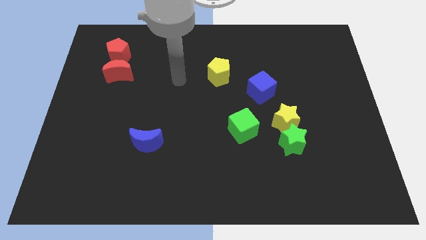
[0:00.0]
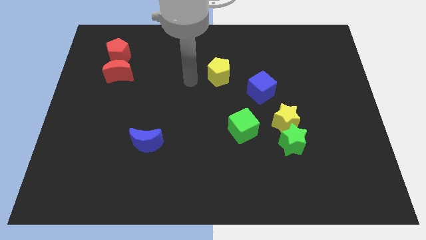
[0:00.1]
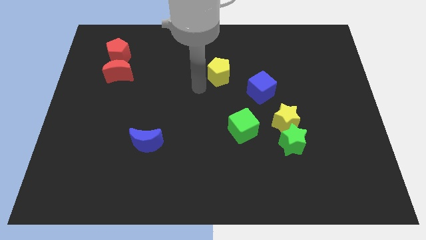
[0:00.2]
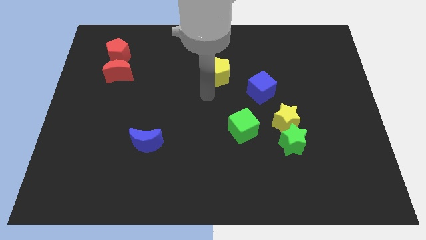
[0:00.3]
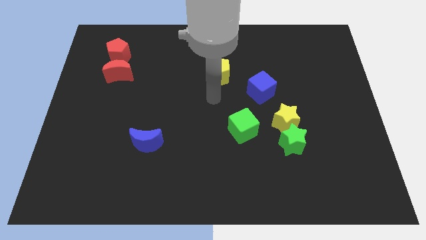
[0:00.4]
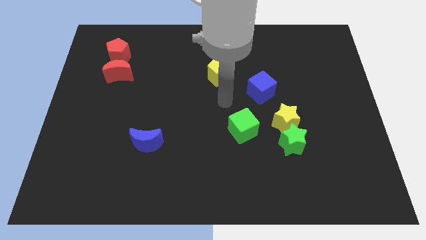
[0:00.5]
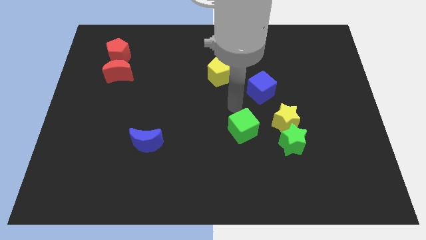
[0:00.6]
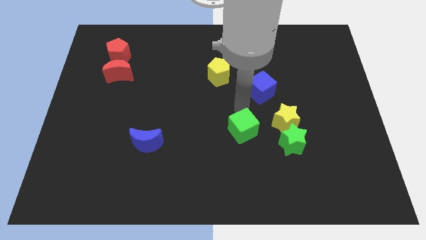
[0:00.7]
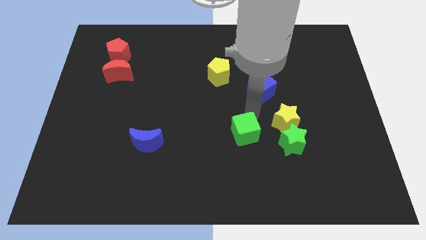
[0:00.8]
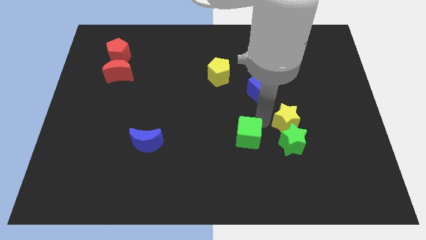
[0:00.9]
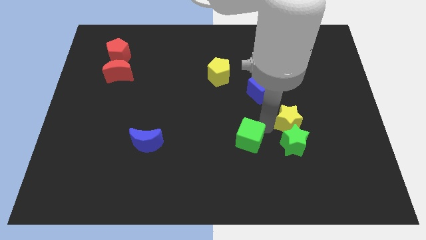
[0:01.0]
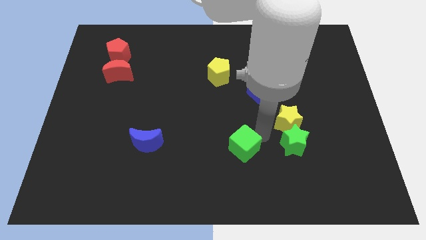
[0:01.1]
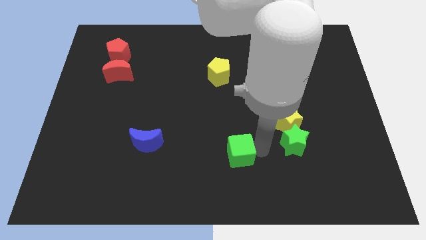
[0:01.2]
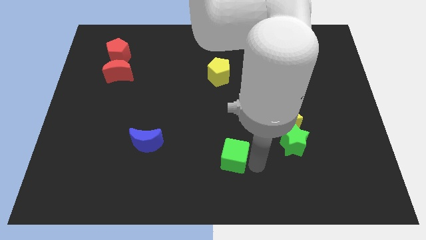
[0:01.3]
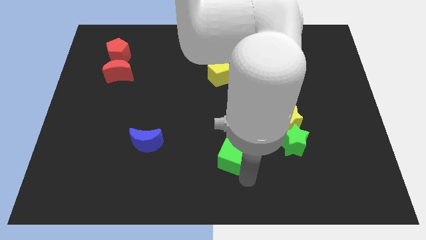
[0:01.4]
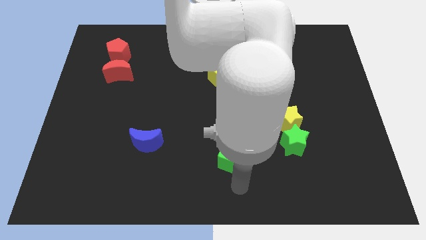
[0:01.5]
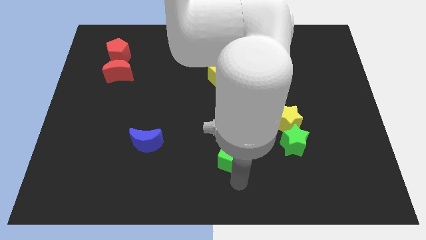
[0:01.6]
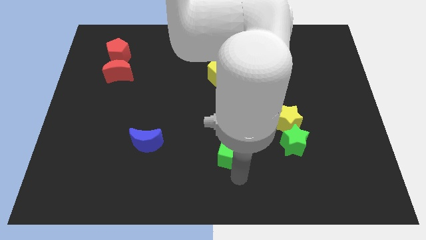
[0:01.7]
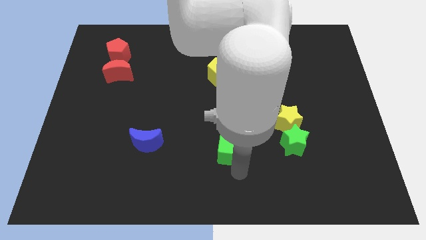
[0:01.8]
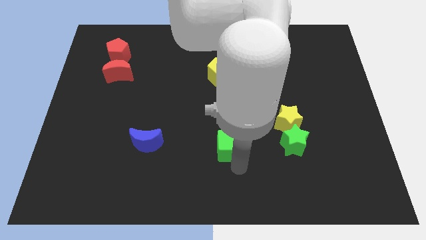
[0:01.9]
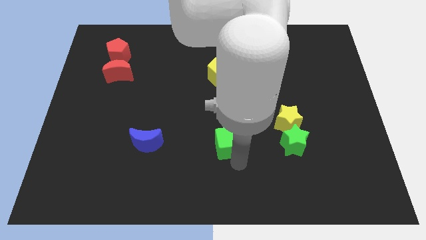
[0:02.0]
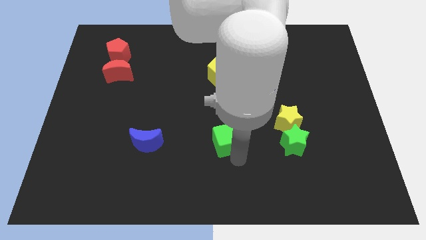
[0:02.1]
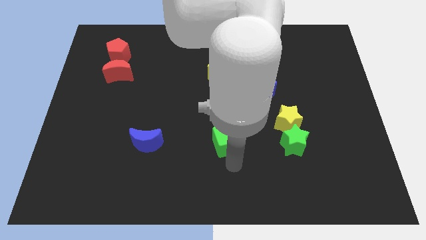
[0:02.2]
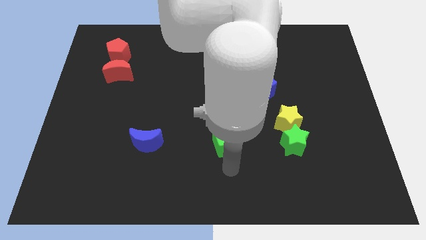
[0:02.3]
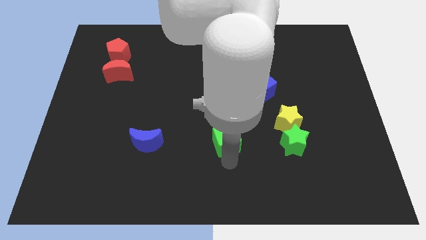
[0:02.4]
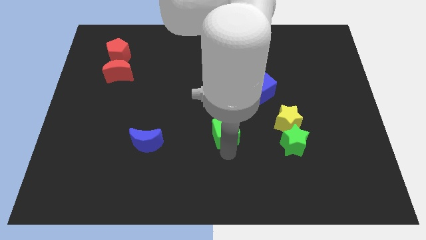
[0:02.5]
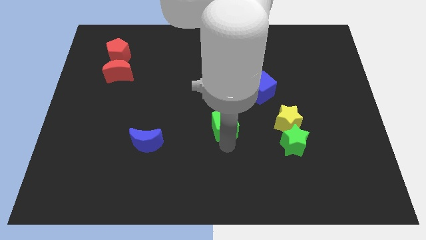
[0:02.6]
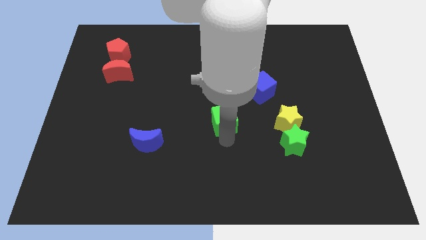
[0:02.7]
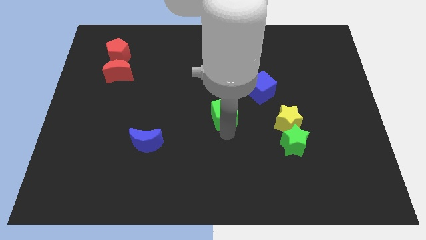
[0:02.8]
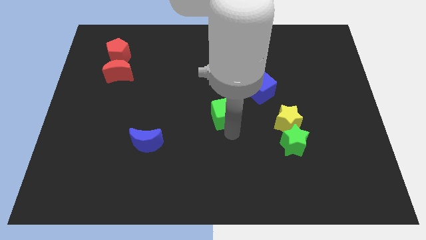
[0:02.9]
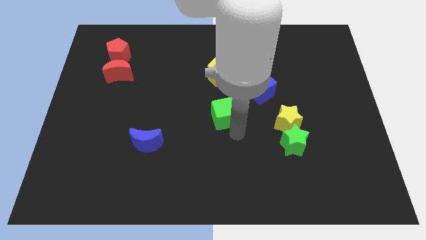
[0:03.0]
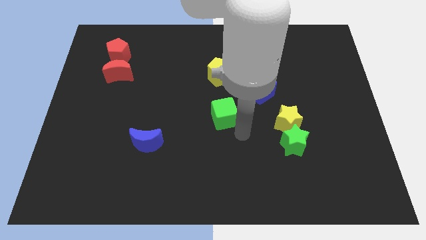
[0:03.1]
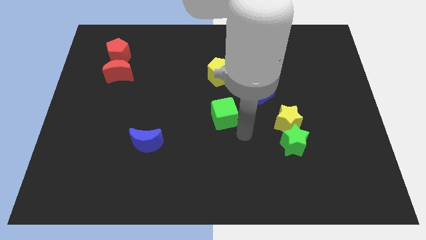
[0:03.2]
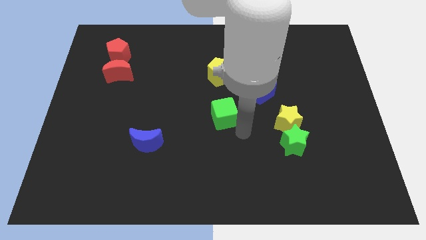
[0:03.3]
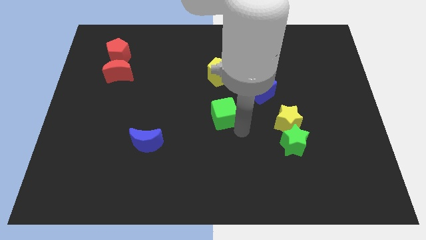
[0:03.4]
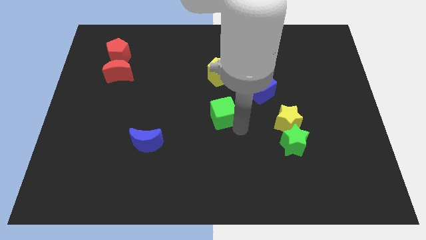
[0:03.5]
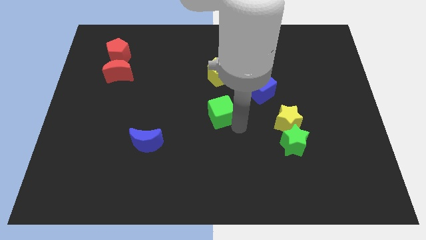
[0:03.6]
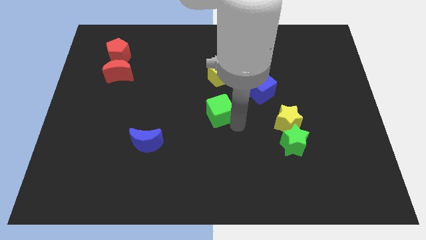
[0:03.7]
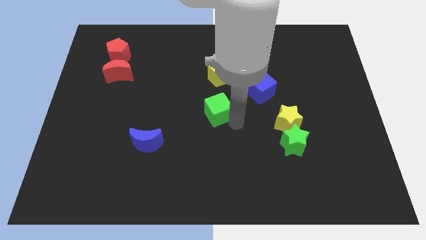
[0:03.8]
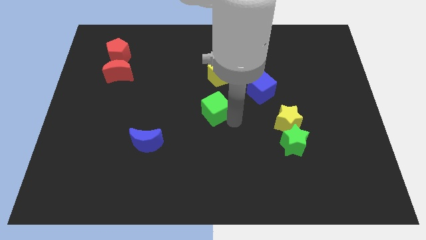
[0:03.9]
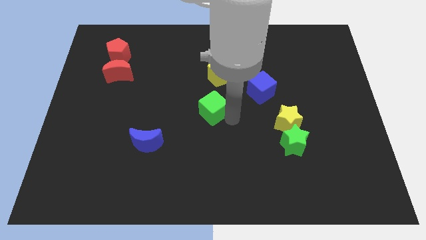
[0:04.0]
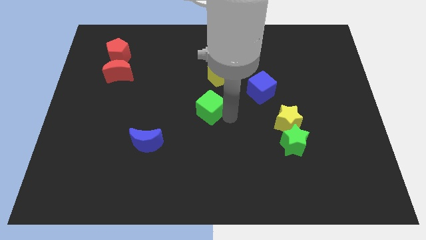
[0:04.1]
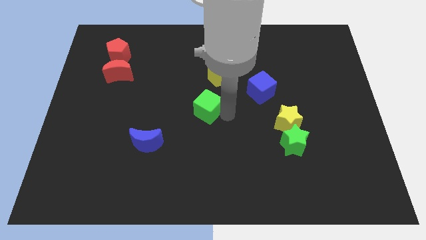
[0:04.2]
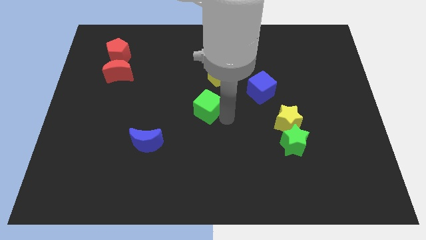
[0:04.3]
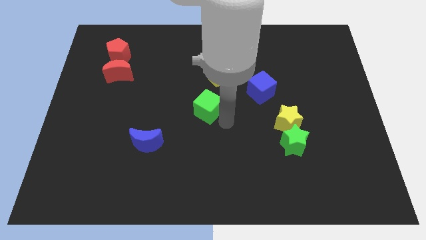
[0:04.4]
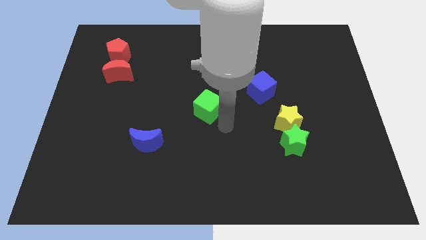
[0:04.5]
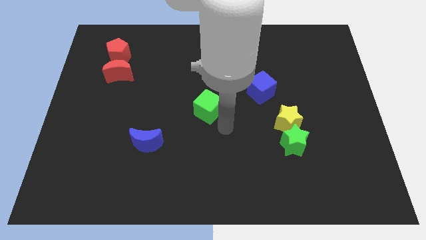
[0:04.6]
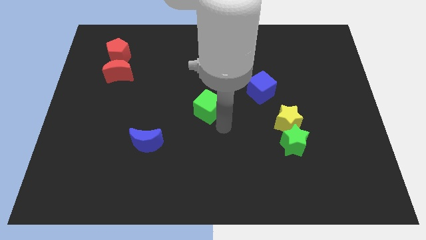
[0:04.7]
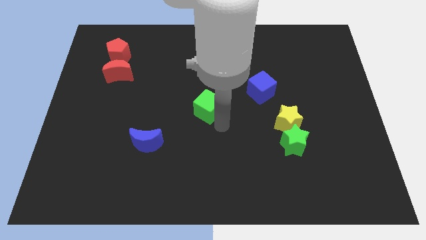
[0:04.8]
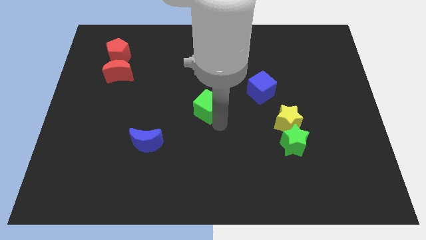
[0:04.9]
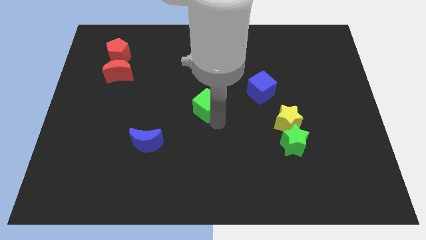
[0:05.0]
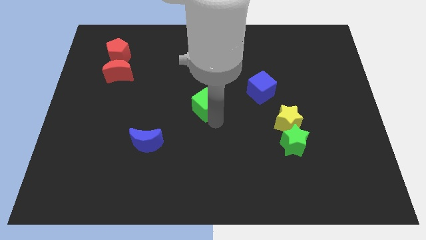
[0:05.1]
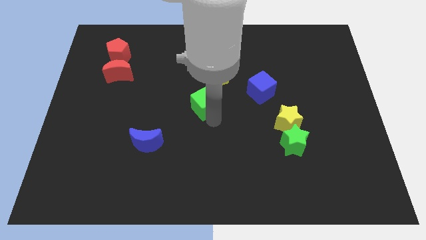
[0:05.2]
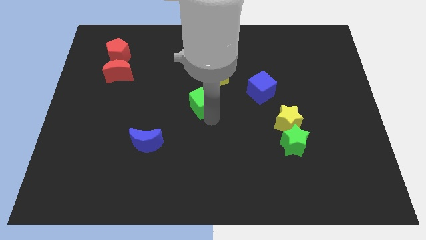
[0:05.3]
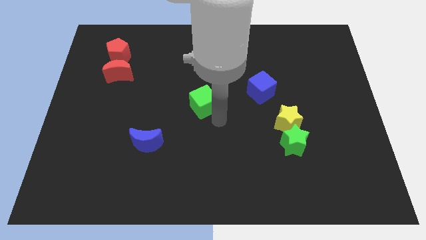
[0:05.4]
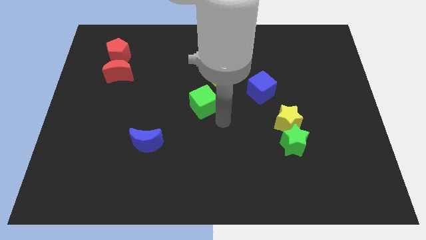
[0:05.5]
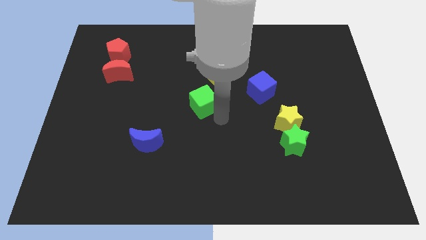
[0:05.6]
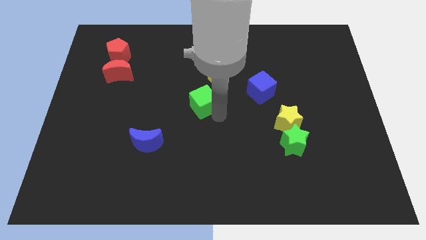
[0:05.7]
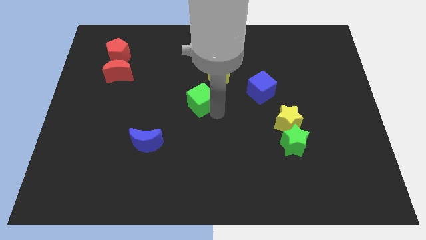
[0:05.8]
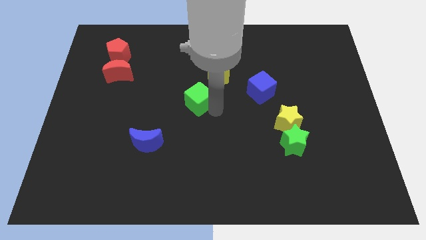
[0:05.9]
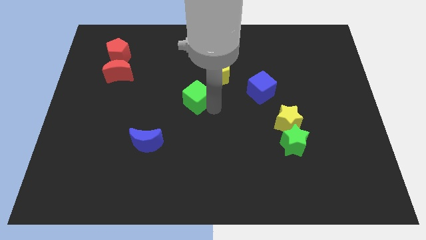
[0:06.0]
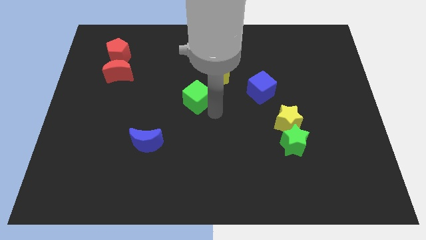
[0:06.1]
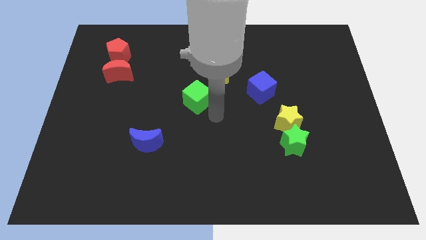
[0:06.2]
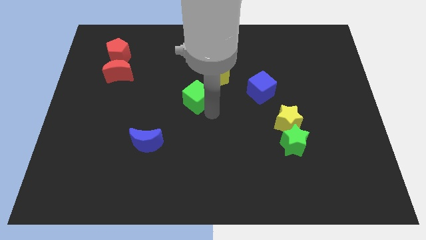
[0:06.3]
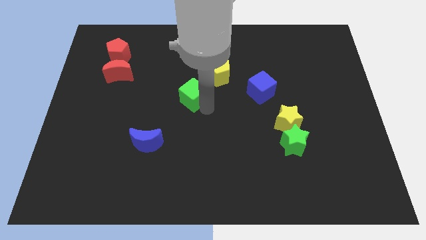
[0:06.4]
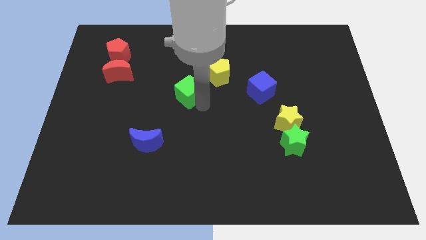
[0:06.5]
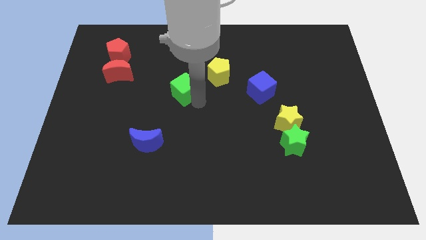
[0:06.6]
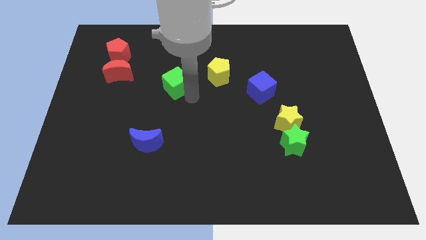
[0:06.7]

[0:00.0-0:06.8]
push the green cube diagonally up and to the left

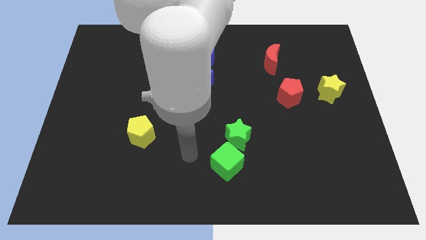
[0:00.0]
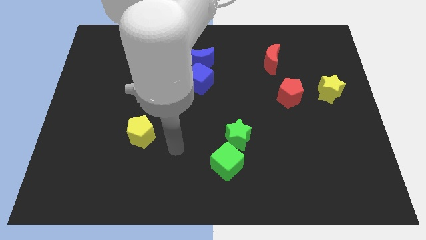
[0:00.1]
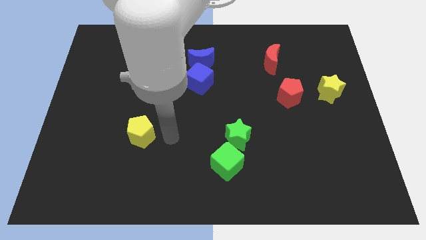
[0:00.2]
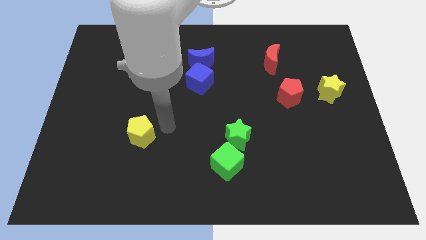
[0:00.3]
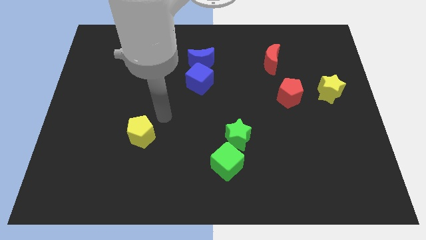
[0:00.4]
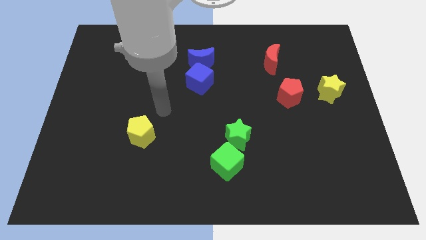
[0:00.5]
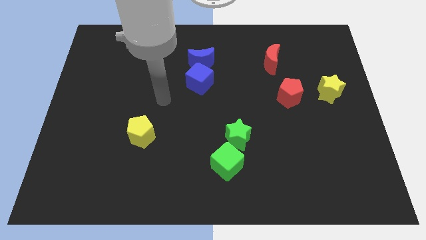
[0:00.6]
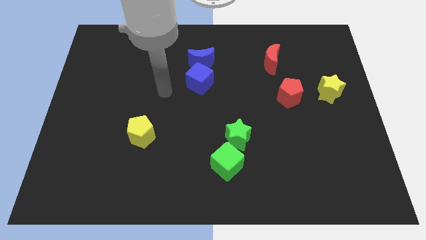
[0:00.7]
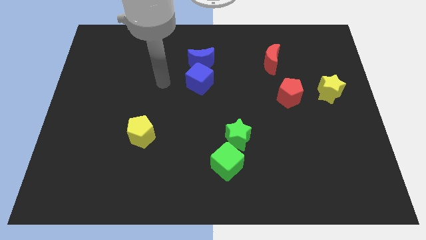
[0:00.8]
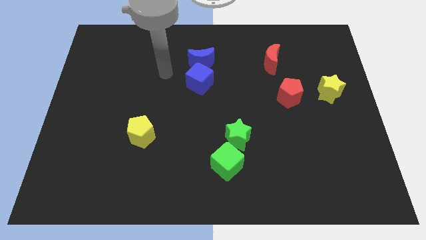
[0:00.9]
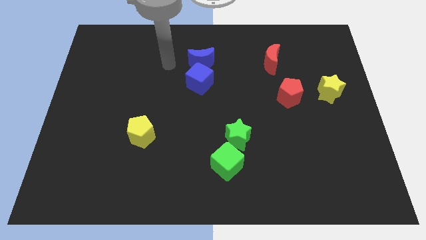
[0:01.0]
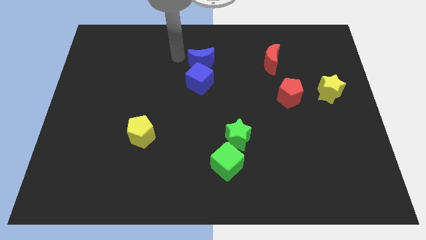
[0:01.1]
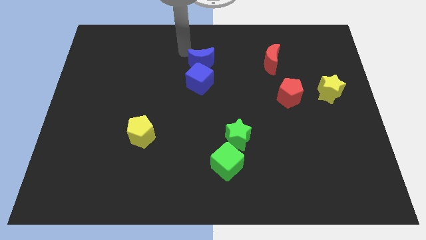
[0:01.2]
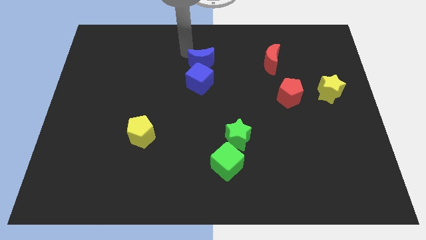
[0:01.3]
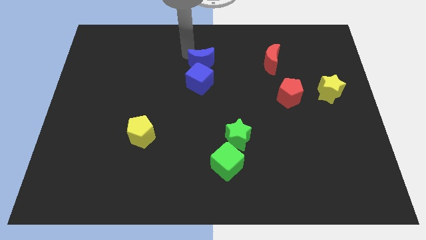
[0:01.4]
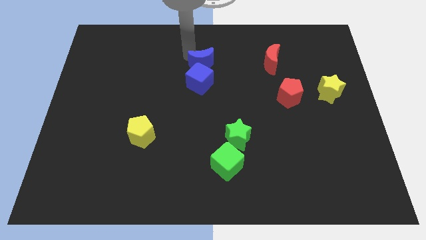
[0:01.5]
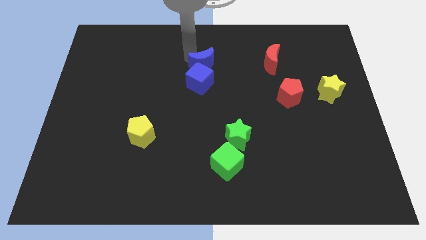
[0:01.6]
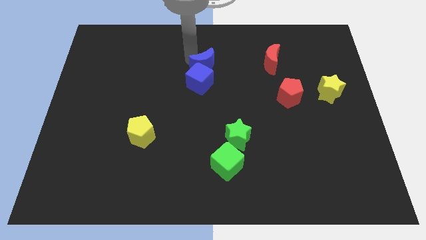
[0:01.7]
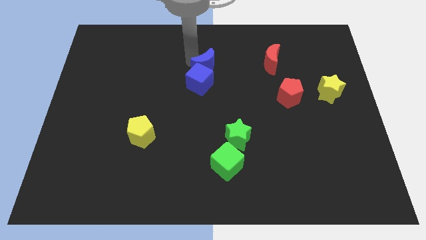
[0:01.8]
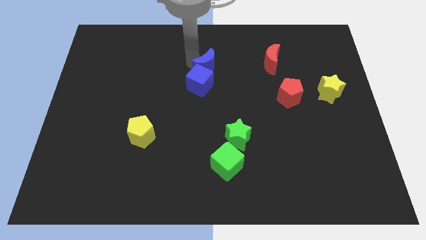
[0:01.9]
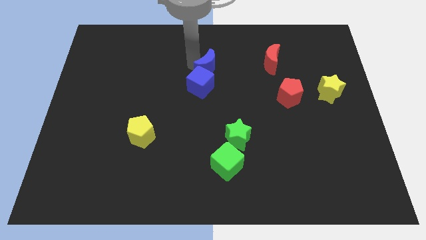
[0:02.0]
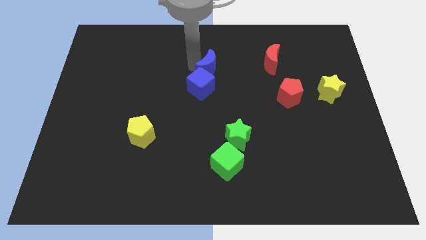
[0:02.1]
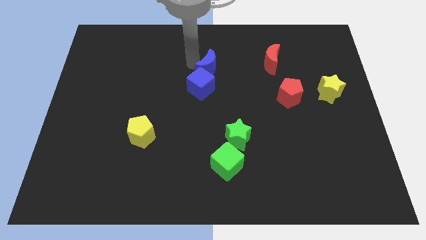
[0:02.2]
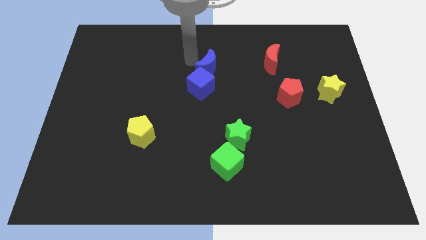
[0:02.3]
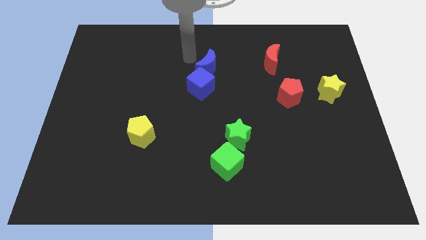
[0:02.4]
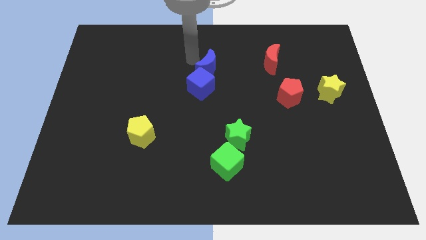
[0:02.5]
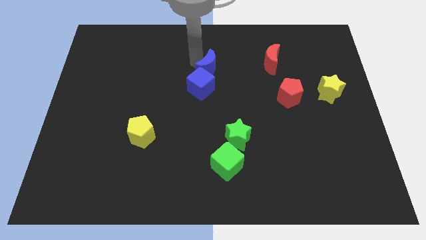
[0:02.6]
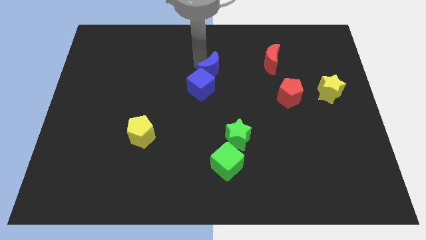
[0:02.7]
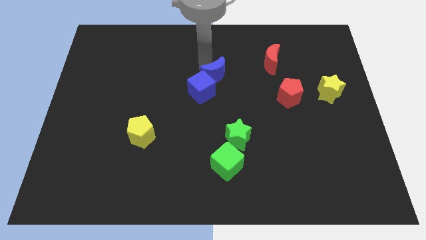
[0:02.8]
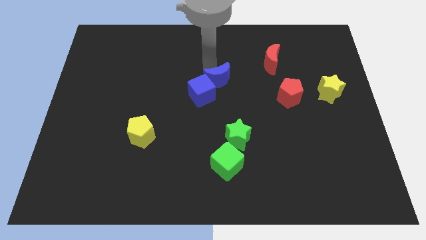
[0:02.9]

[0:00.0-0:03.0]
move the blue moon slightly downwards and then right
